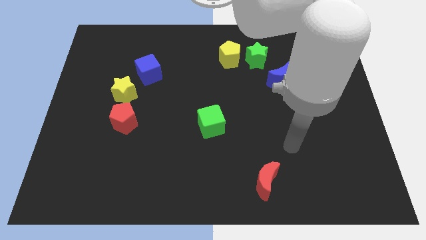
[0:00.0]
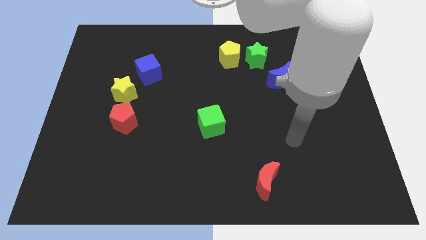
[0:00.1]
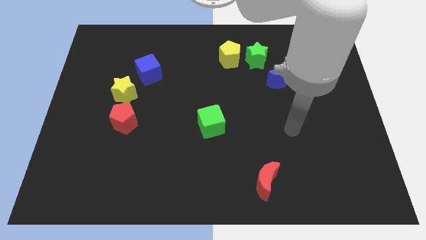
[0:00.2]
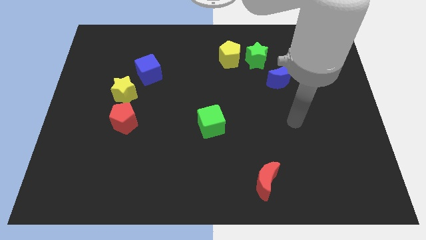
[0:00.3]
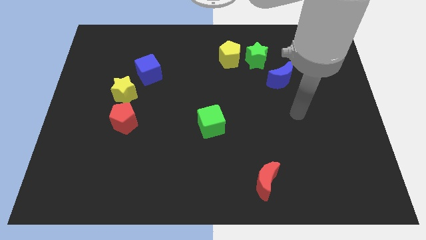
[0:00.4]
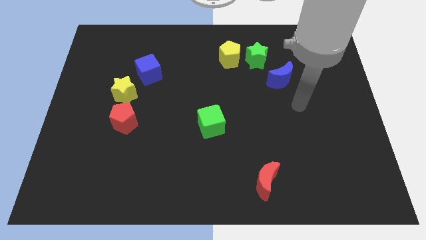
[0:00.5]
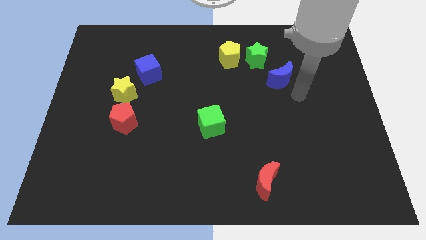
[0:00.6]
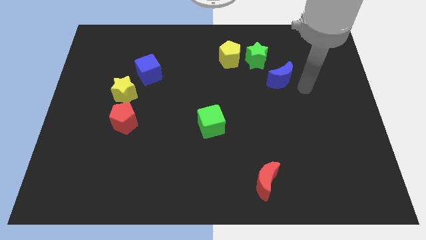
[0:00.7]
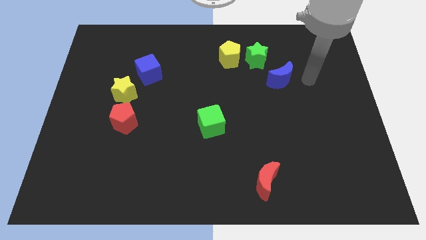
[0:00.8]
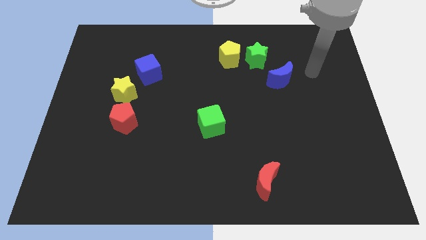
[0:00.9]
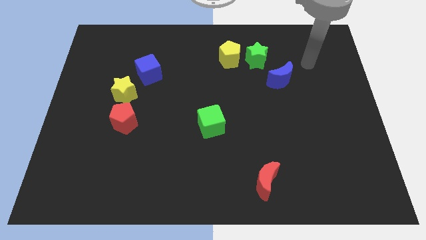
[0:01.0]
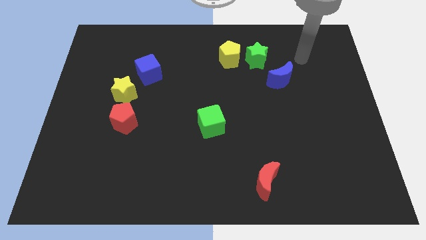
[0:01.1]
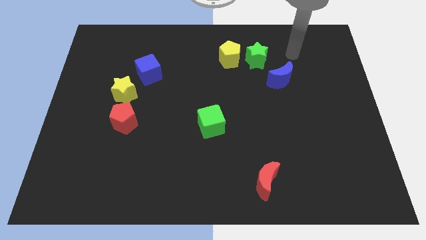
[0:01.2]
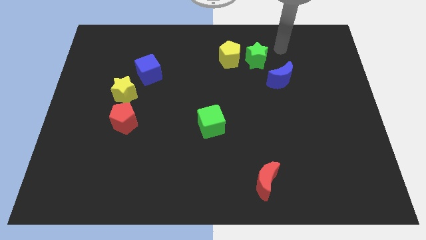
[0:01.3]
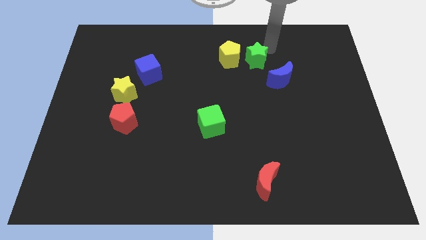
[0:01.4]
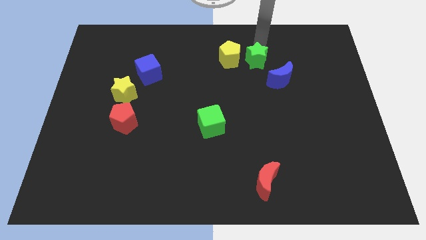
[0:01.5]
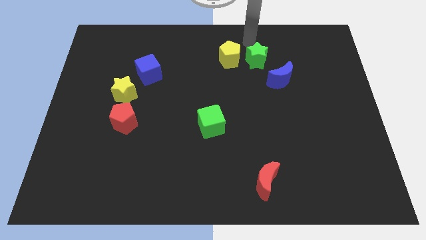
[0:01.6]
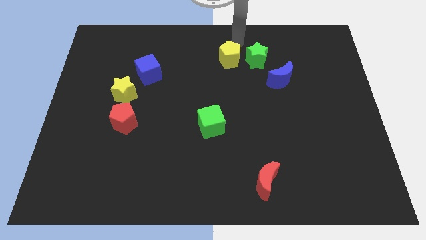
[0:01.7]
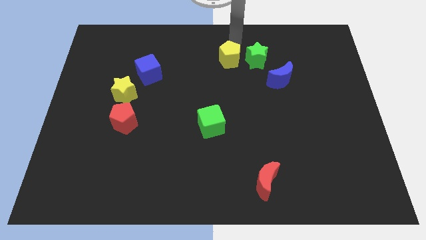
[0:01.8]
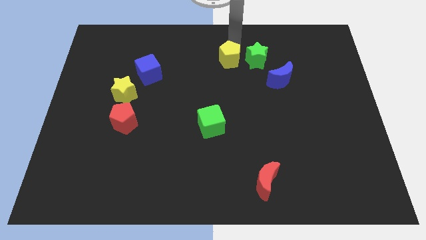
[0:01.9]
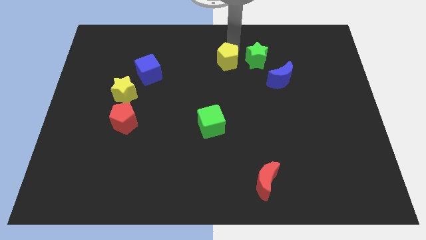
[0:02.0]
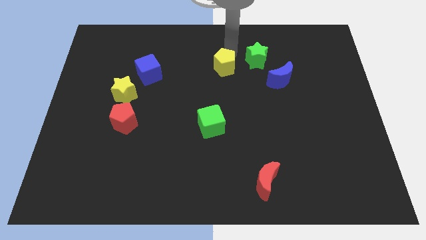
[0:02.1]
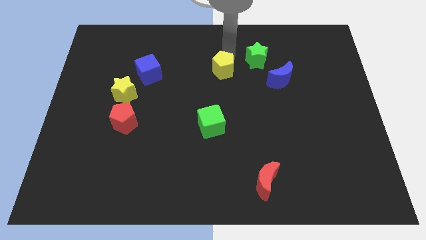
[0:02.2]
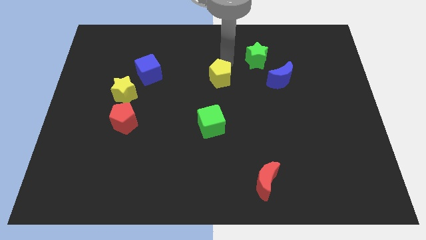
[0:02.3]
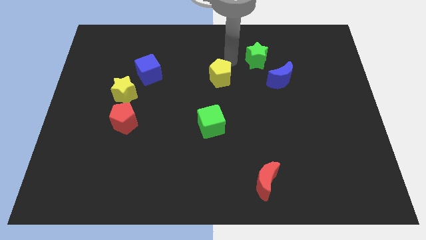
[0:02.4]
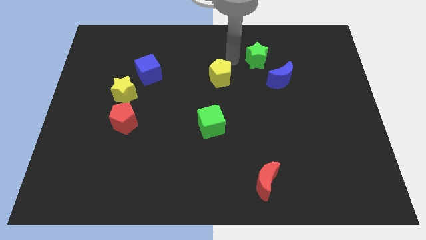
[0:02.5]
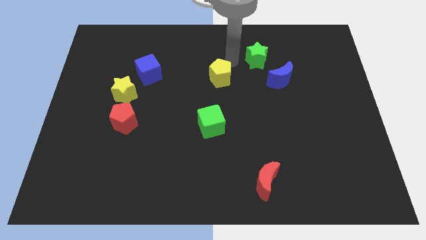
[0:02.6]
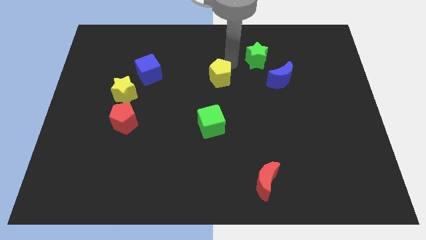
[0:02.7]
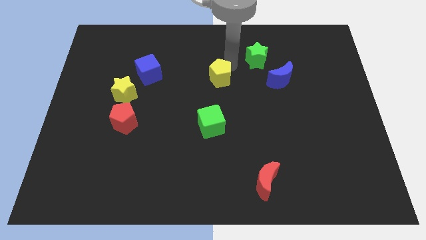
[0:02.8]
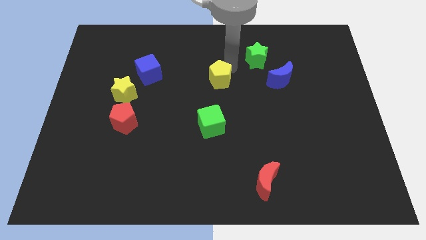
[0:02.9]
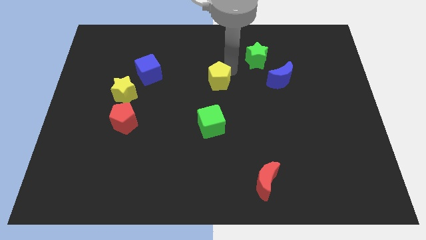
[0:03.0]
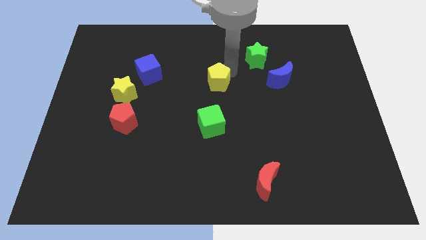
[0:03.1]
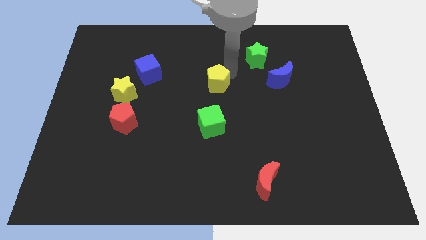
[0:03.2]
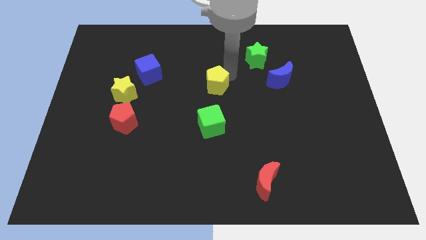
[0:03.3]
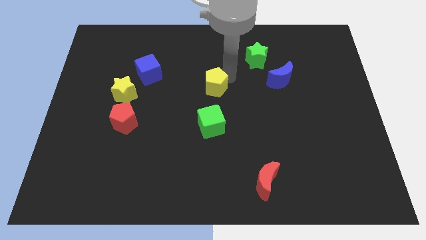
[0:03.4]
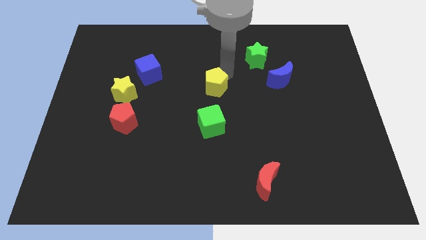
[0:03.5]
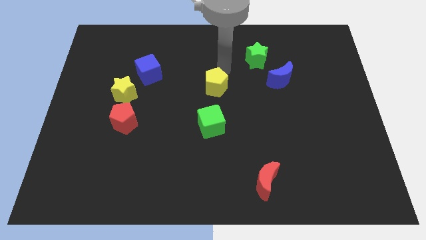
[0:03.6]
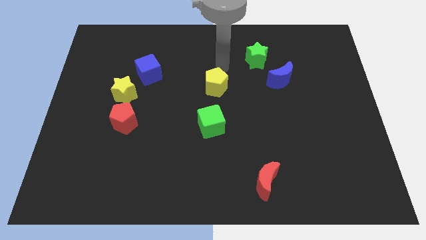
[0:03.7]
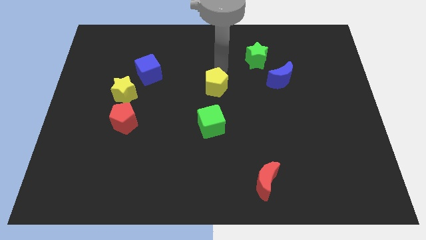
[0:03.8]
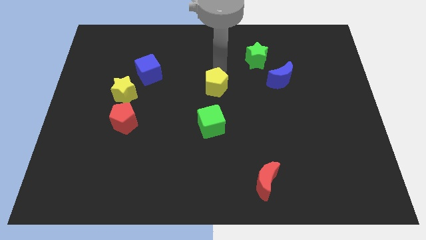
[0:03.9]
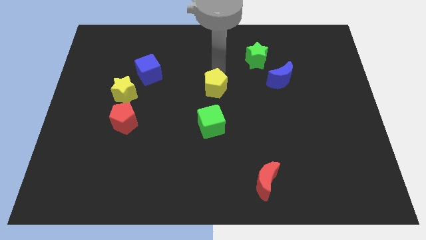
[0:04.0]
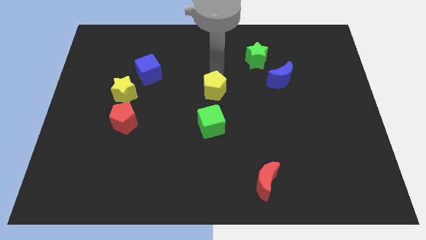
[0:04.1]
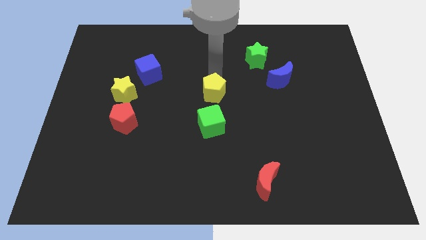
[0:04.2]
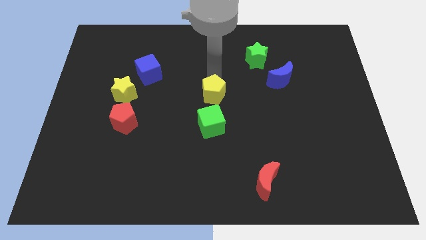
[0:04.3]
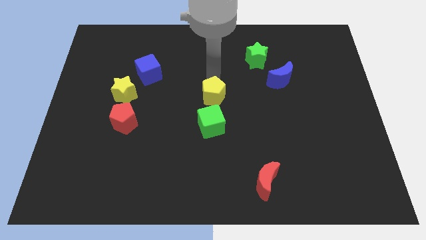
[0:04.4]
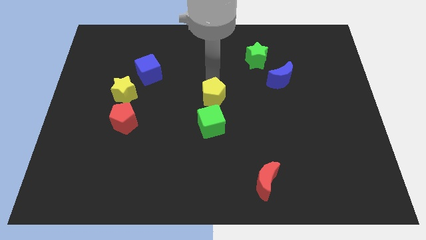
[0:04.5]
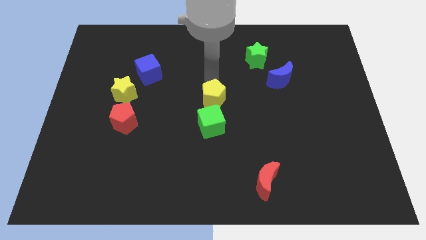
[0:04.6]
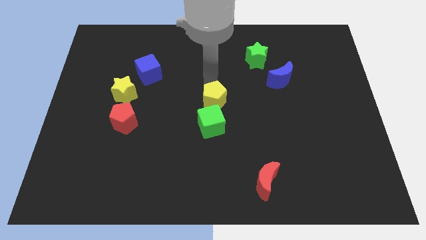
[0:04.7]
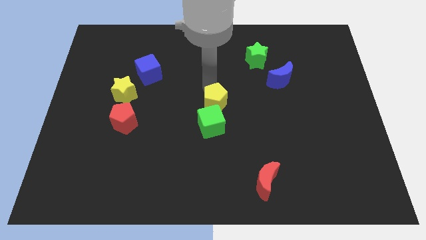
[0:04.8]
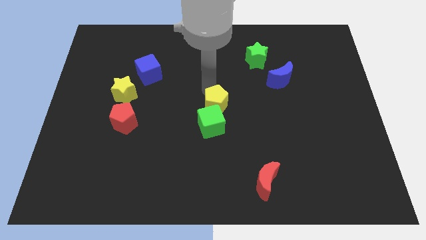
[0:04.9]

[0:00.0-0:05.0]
slide the yellow pentagon towards the green cube

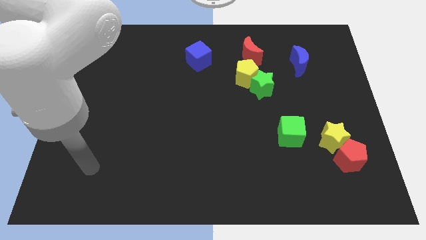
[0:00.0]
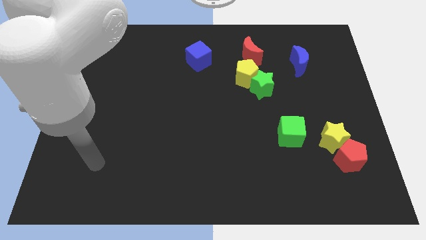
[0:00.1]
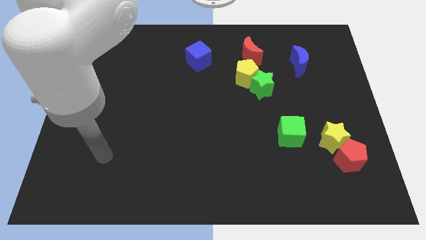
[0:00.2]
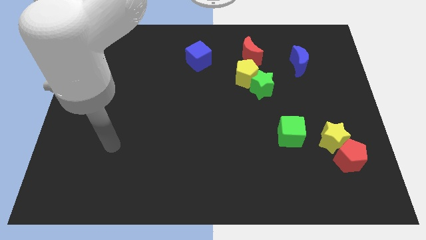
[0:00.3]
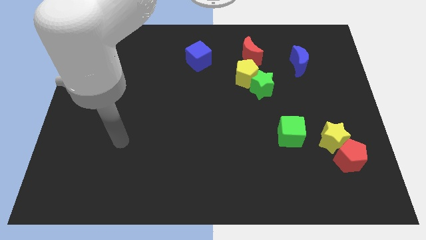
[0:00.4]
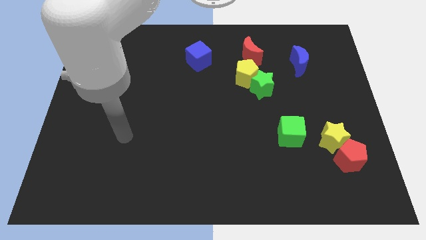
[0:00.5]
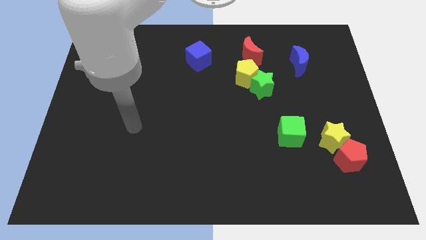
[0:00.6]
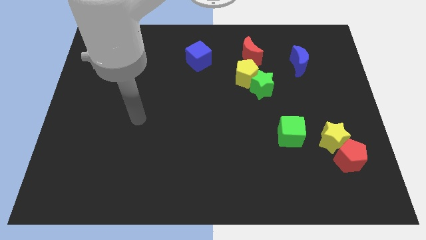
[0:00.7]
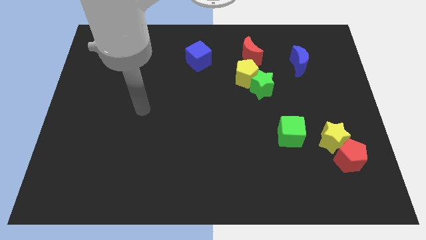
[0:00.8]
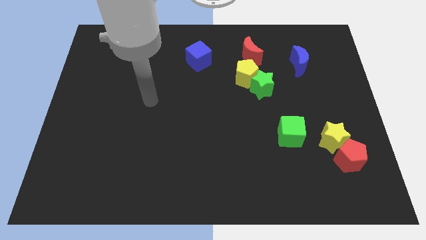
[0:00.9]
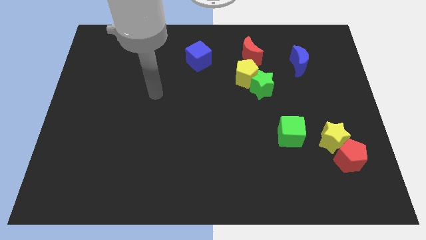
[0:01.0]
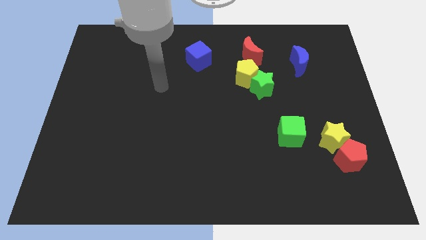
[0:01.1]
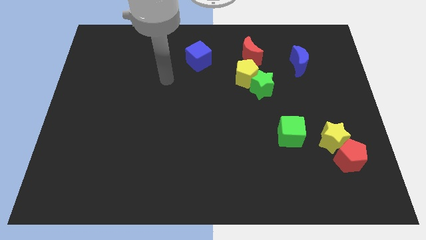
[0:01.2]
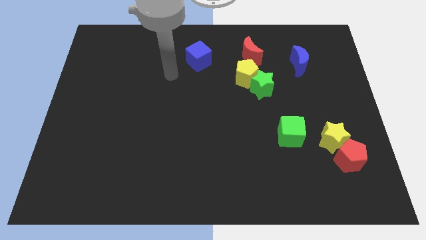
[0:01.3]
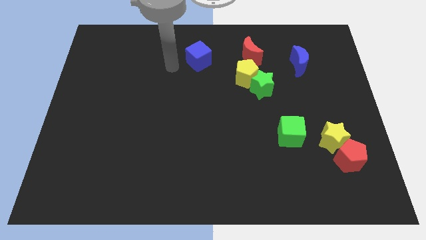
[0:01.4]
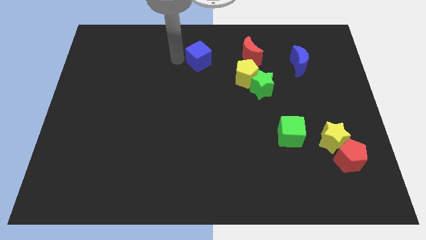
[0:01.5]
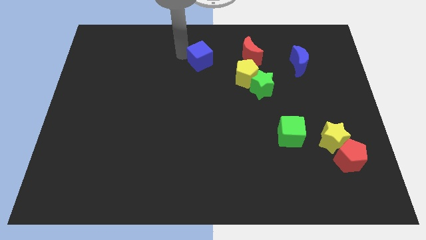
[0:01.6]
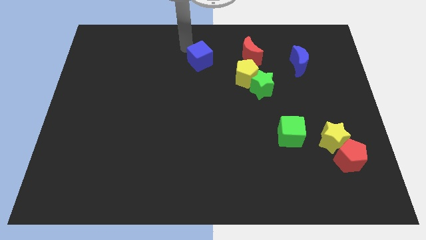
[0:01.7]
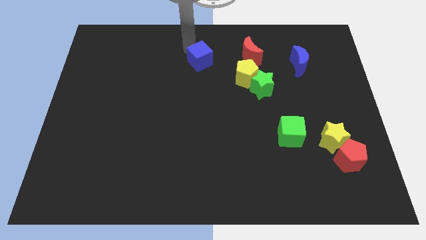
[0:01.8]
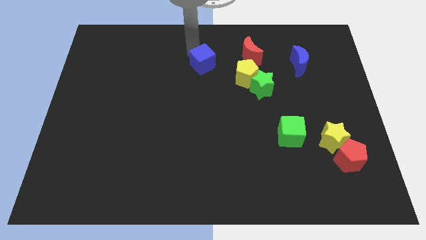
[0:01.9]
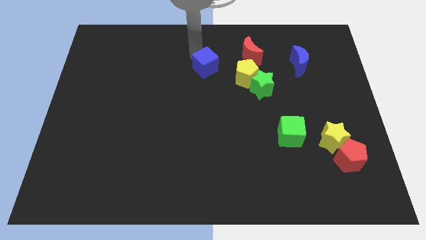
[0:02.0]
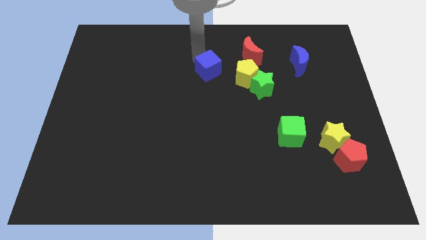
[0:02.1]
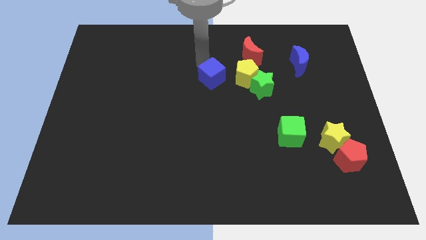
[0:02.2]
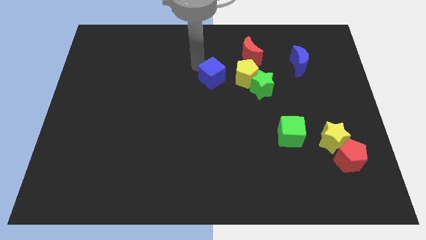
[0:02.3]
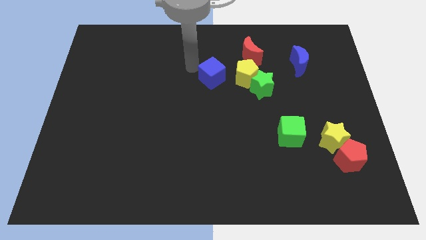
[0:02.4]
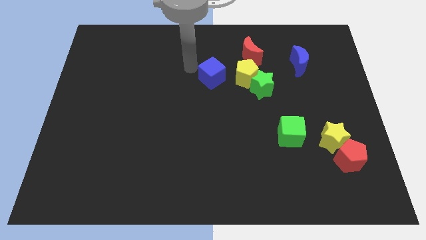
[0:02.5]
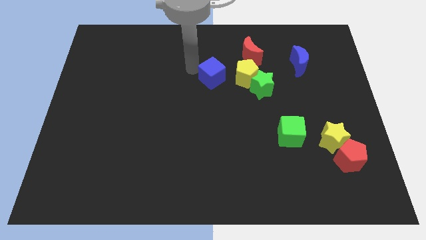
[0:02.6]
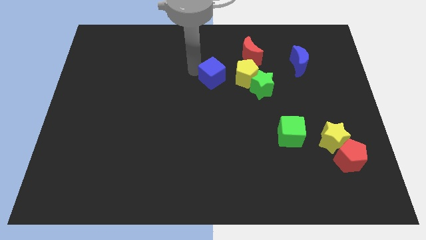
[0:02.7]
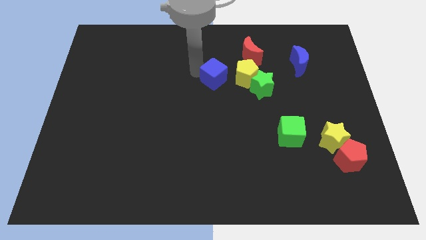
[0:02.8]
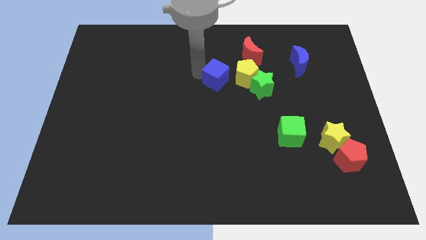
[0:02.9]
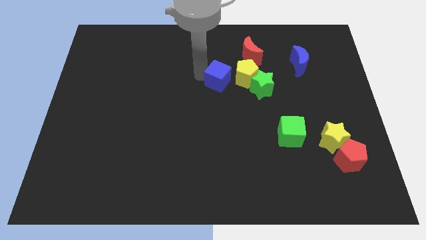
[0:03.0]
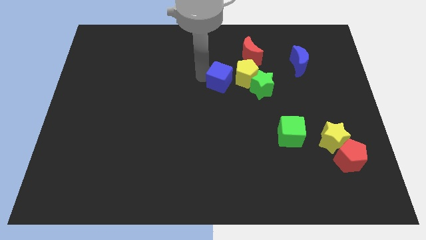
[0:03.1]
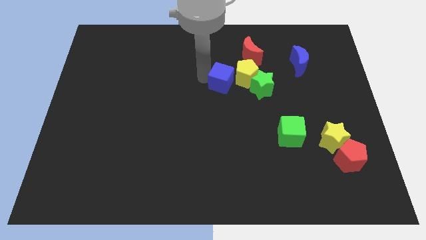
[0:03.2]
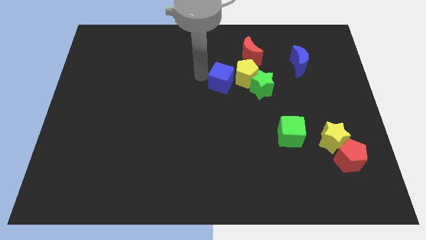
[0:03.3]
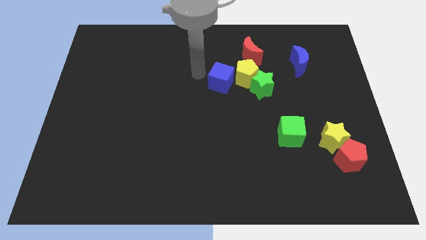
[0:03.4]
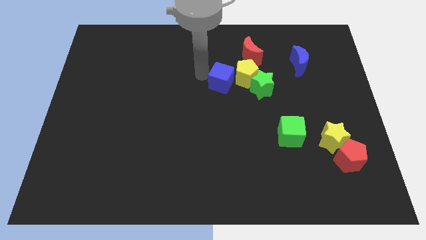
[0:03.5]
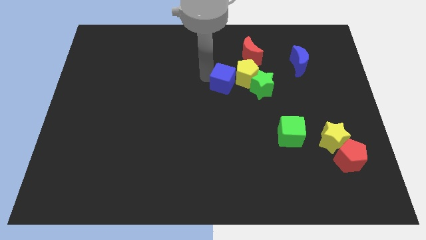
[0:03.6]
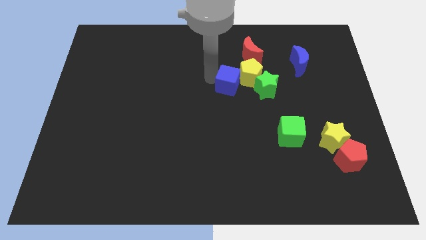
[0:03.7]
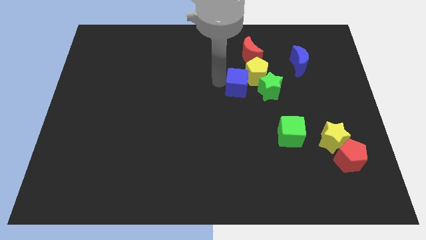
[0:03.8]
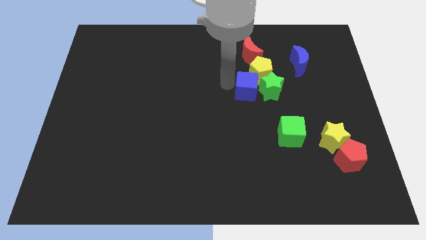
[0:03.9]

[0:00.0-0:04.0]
push the blue cube close to the green star
